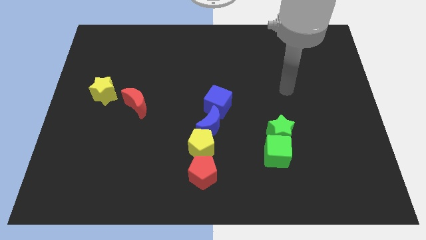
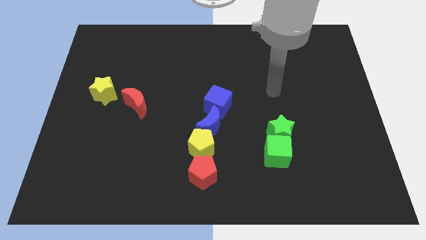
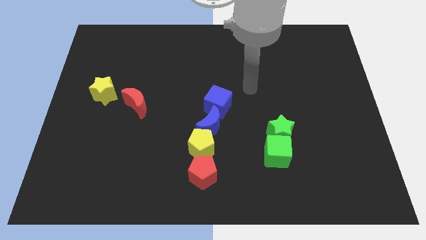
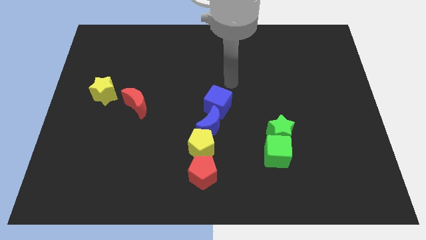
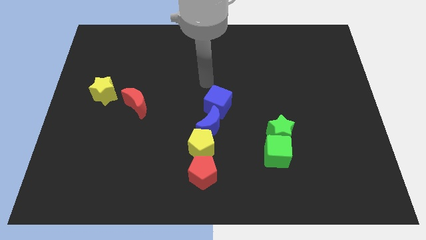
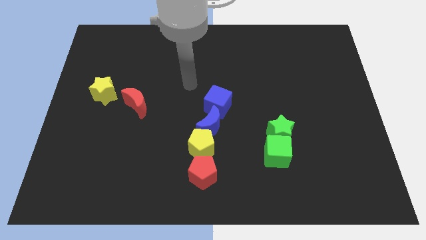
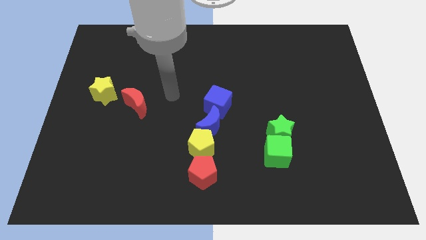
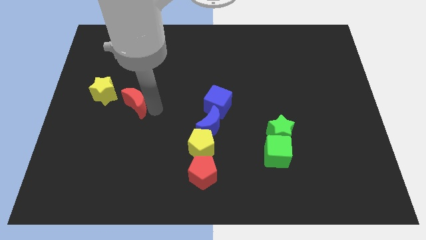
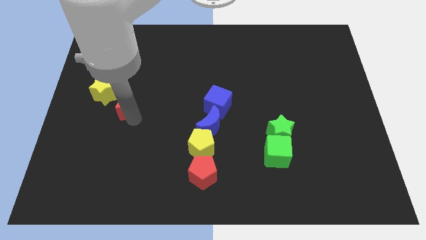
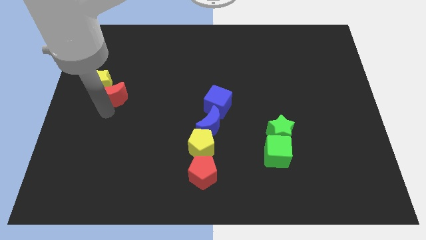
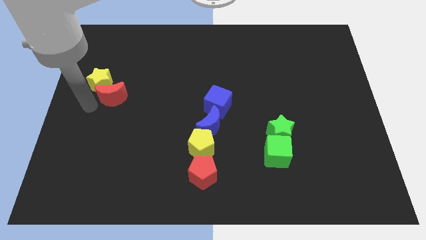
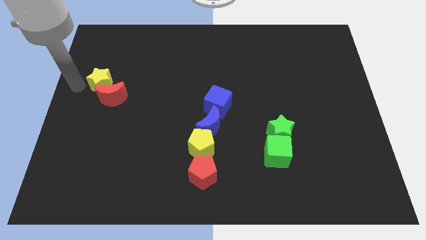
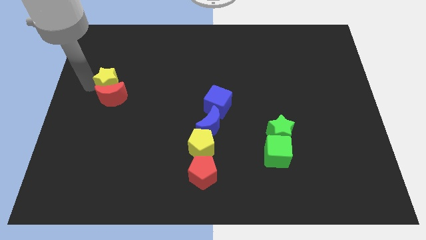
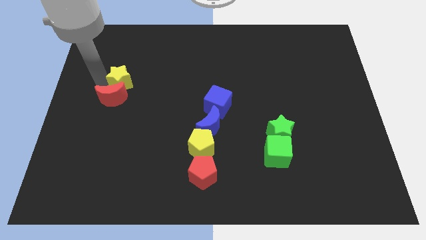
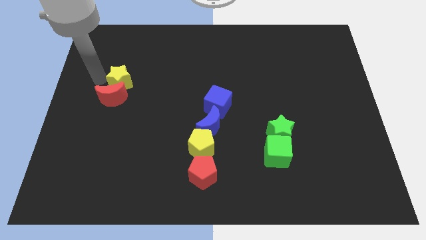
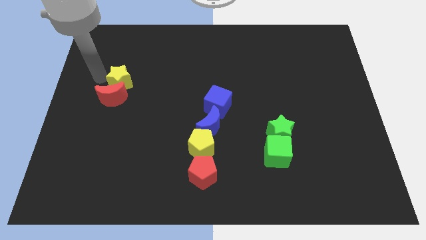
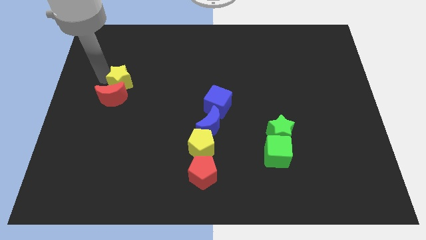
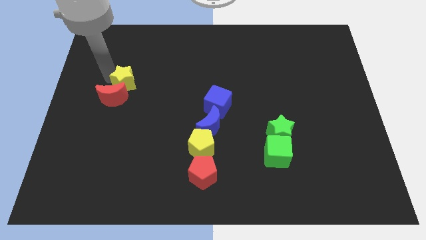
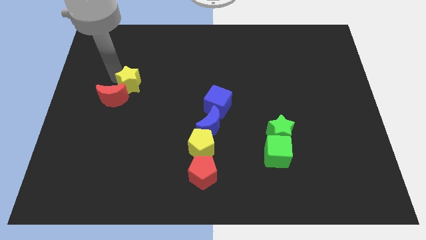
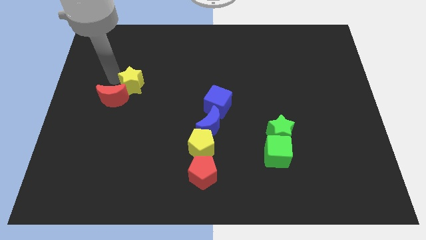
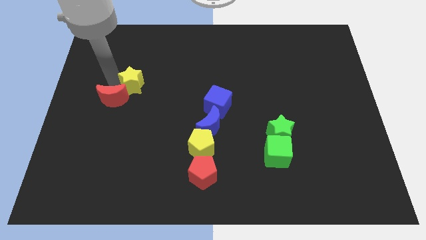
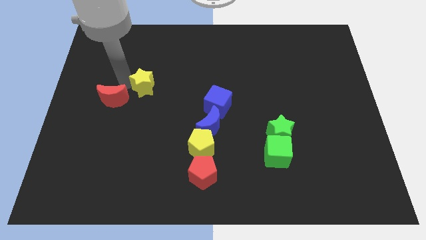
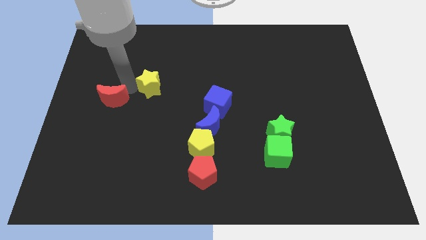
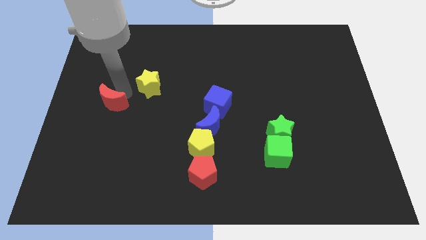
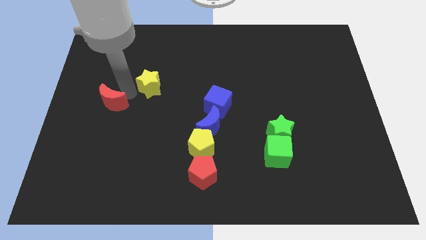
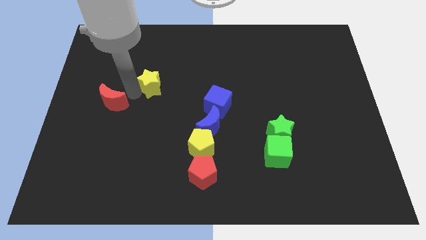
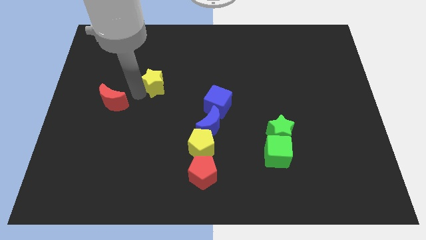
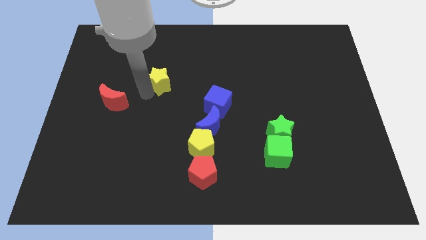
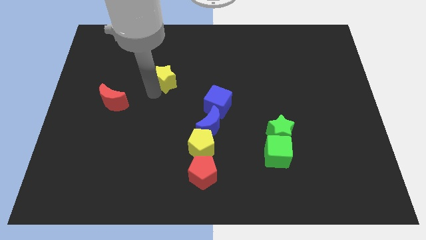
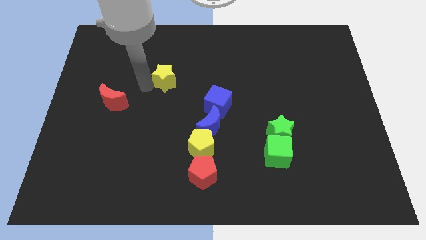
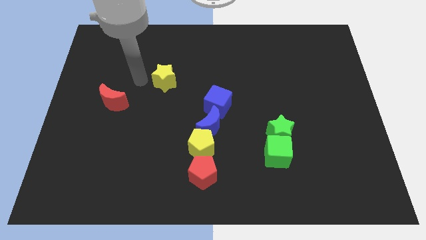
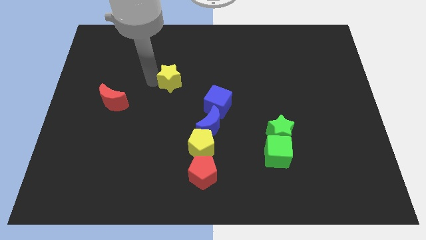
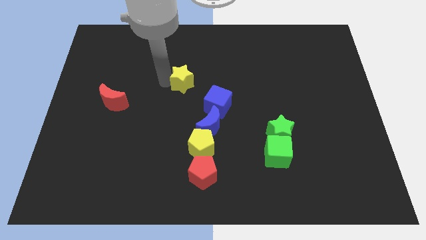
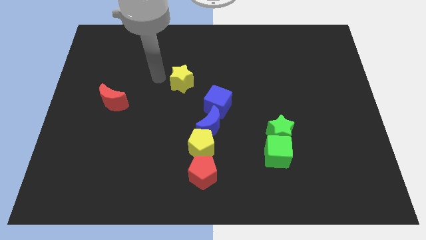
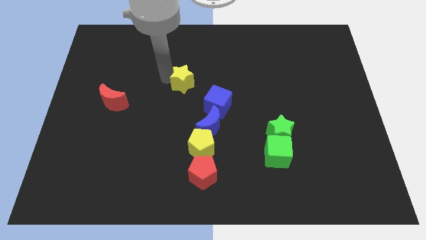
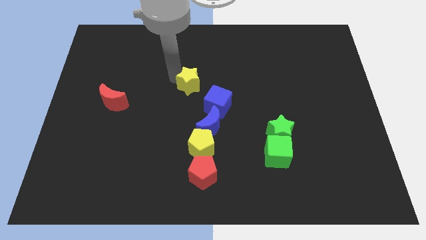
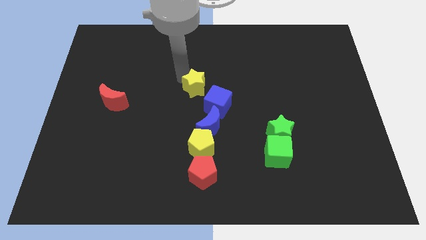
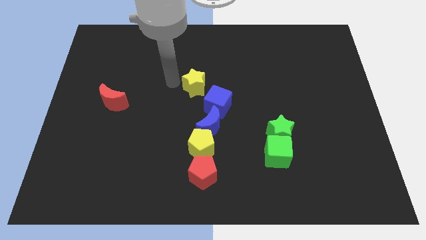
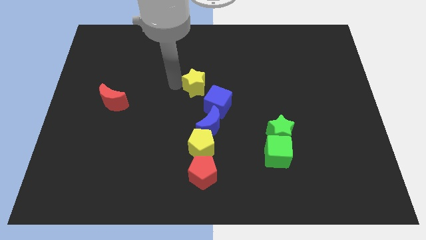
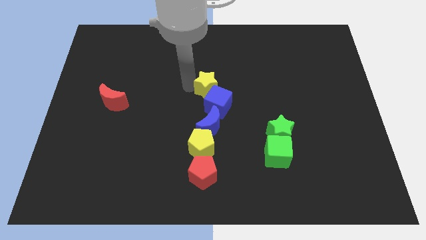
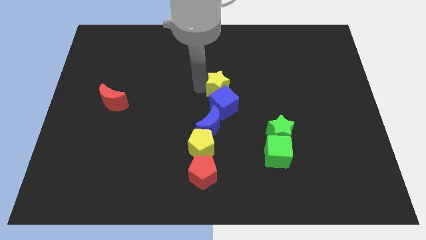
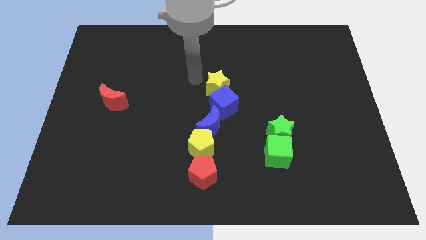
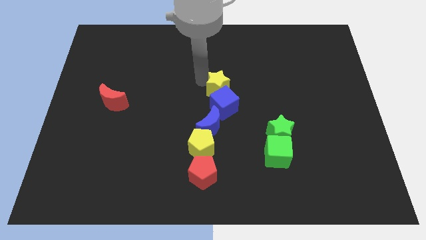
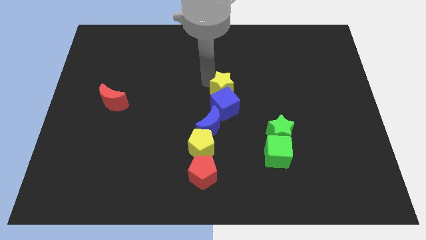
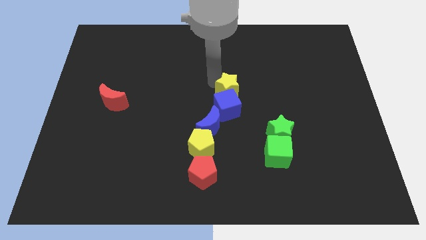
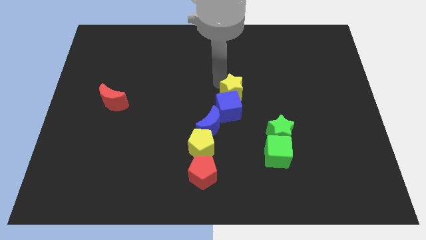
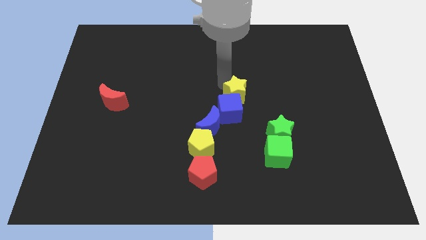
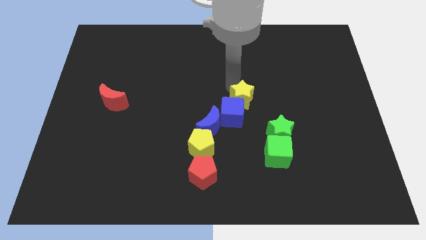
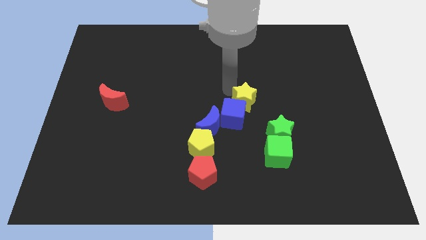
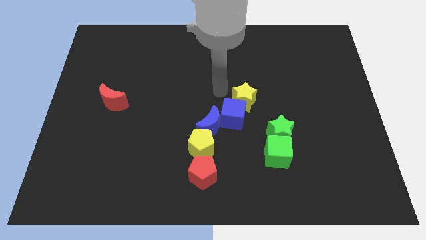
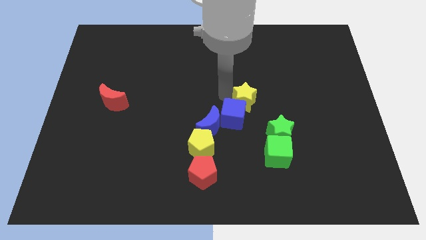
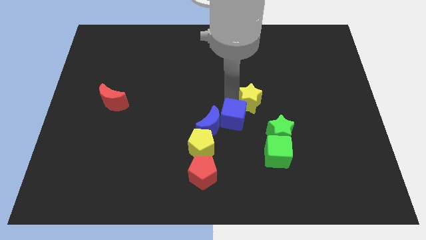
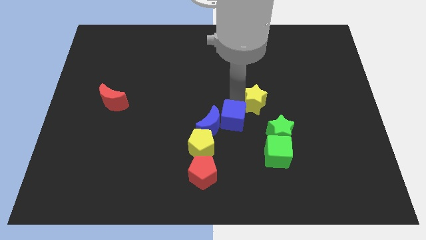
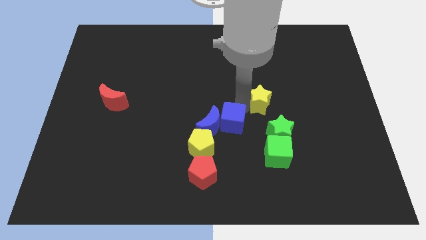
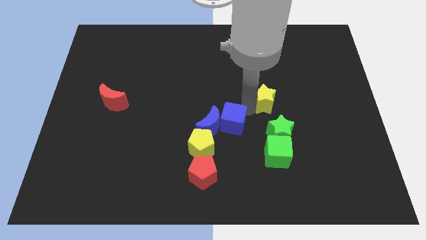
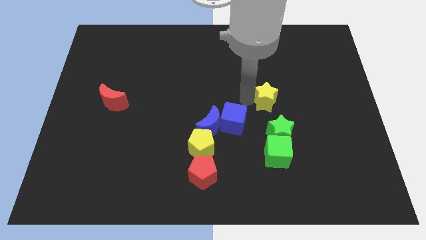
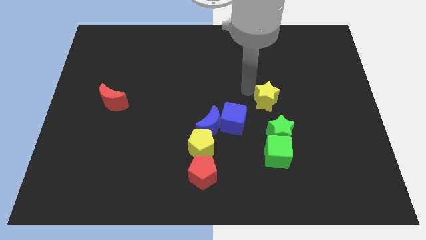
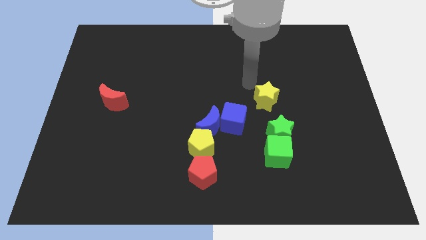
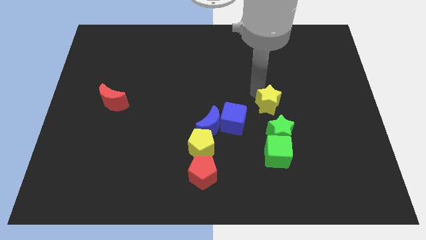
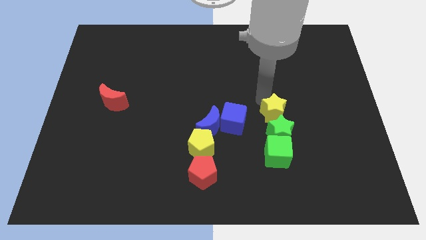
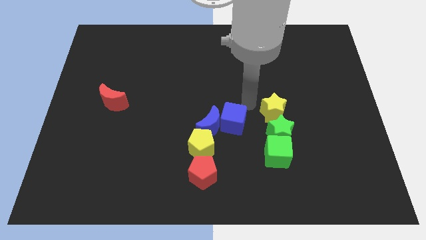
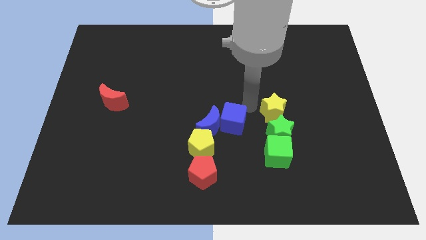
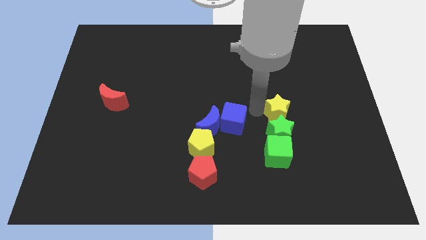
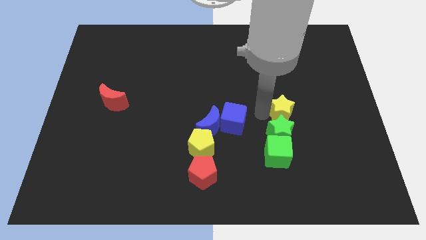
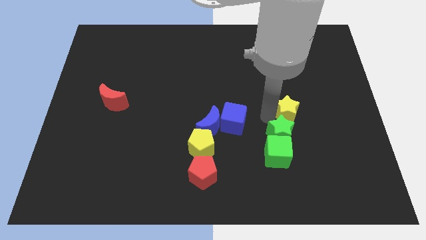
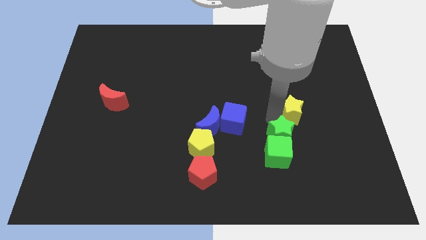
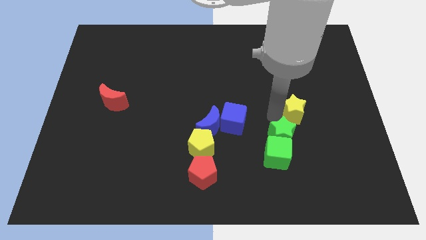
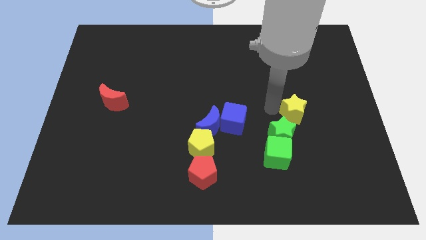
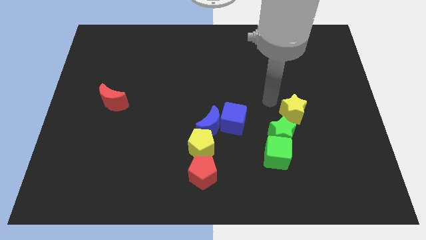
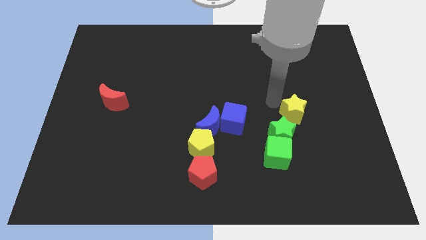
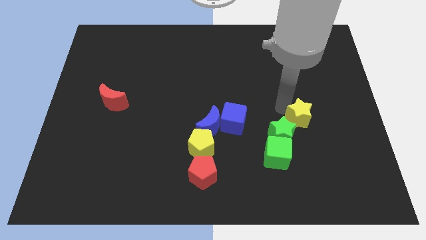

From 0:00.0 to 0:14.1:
push the yellow star just right of the green star
